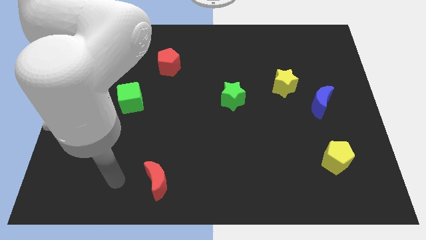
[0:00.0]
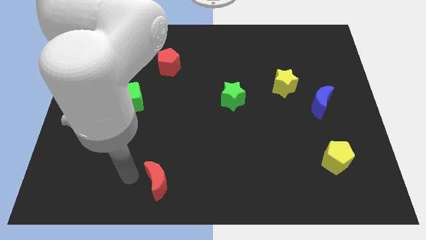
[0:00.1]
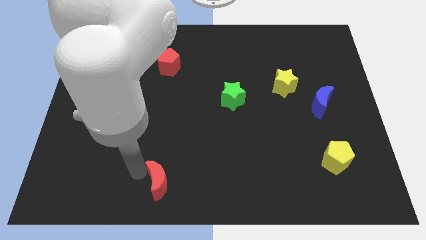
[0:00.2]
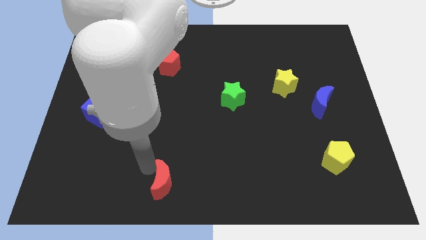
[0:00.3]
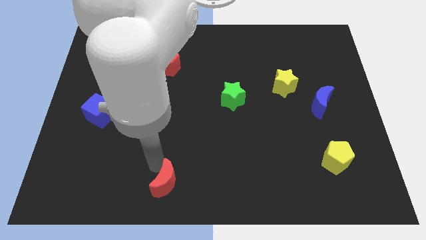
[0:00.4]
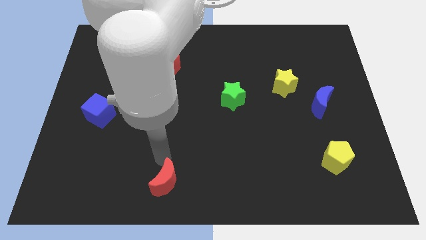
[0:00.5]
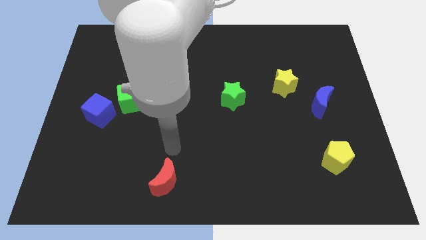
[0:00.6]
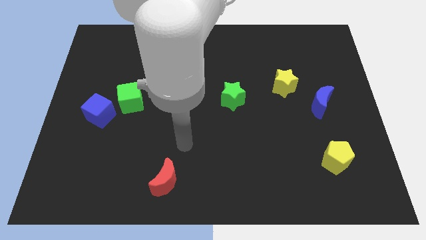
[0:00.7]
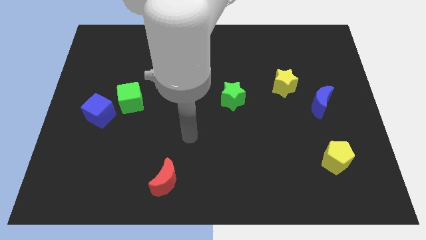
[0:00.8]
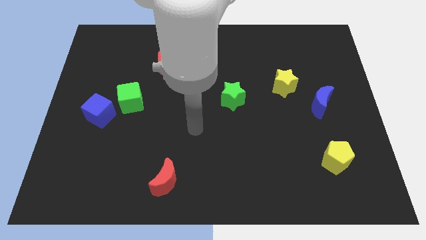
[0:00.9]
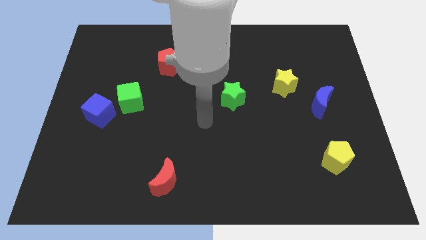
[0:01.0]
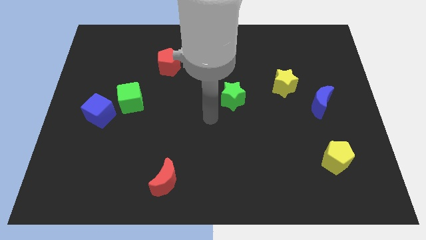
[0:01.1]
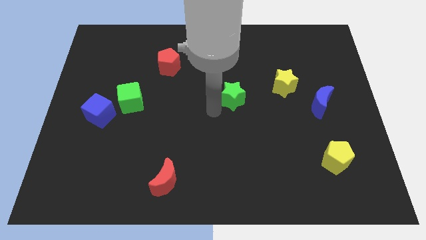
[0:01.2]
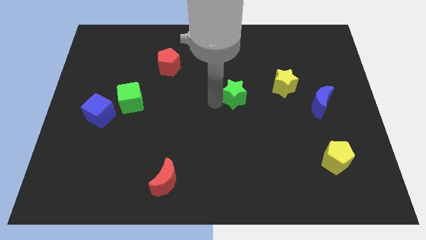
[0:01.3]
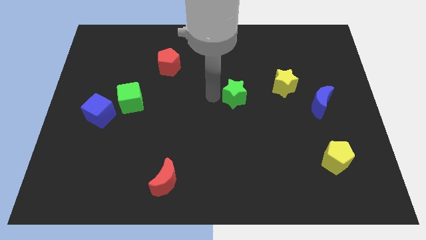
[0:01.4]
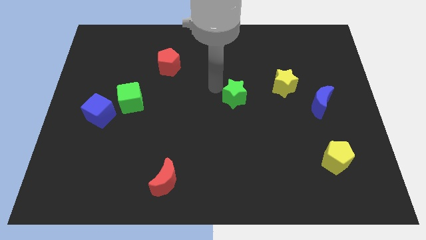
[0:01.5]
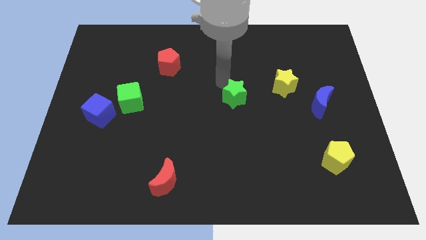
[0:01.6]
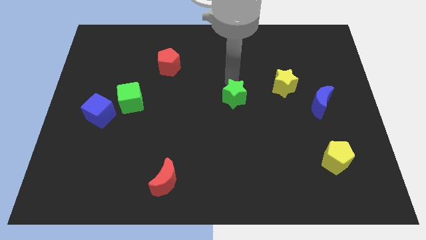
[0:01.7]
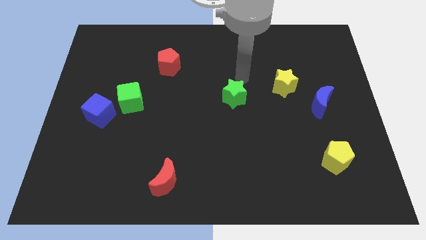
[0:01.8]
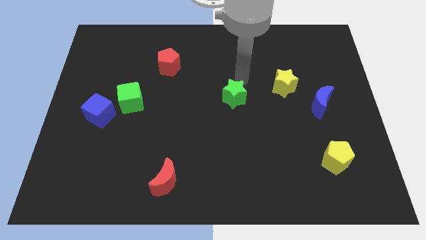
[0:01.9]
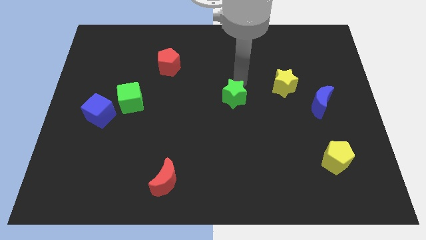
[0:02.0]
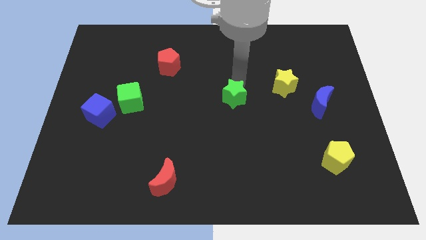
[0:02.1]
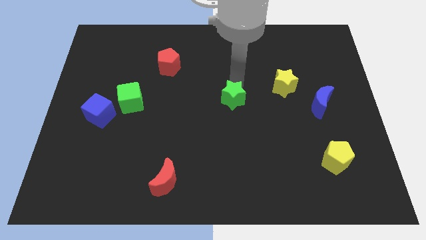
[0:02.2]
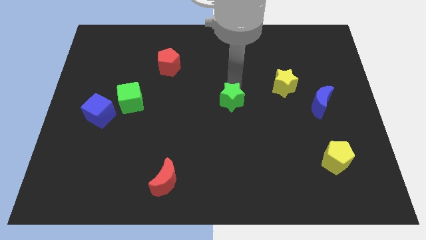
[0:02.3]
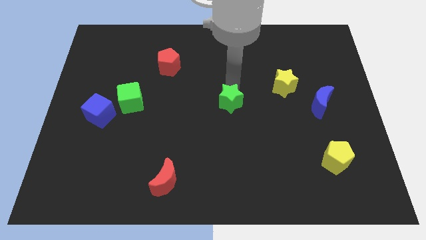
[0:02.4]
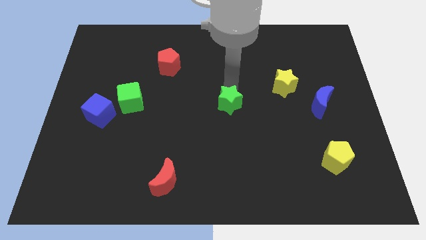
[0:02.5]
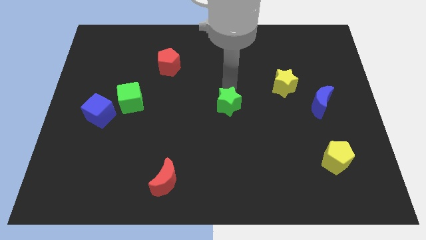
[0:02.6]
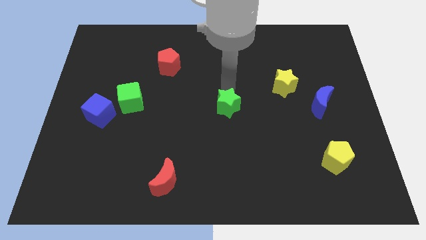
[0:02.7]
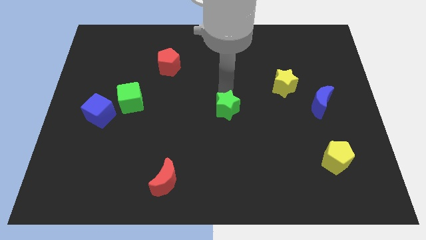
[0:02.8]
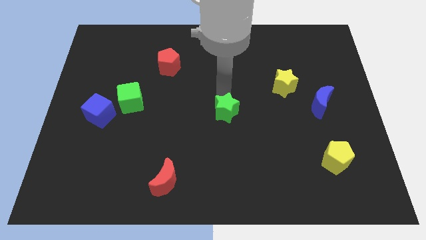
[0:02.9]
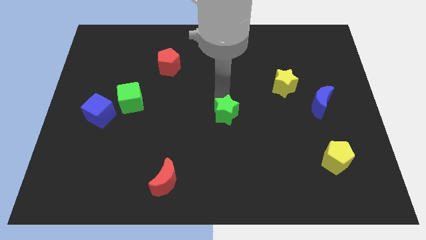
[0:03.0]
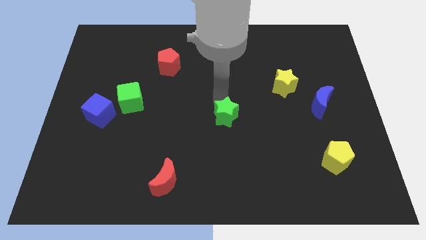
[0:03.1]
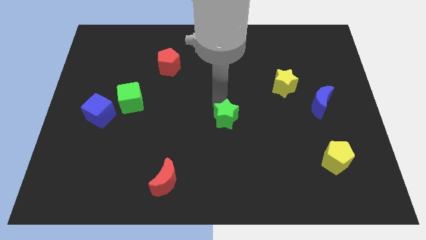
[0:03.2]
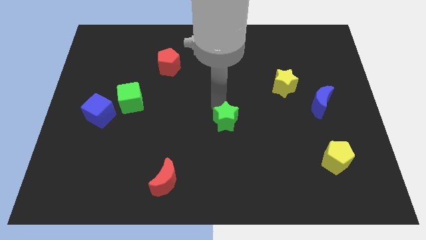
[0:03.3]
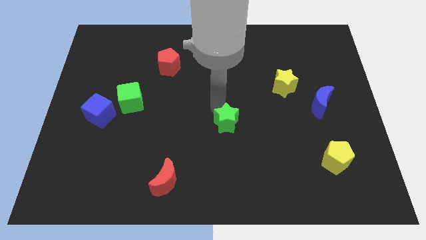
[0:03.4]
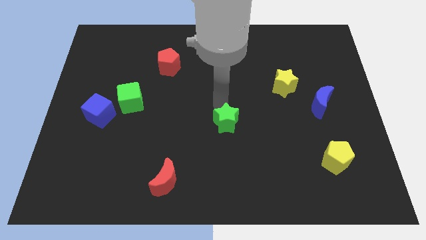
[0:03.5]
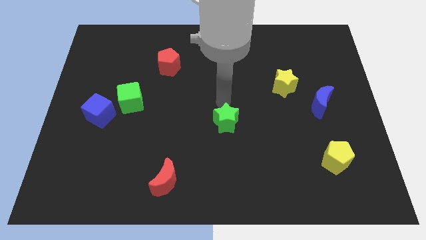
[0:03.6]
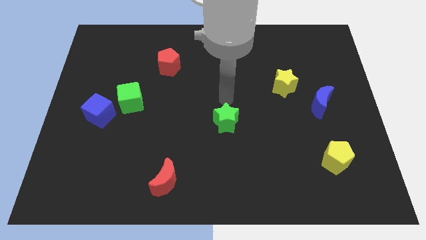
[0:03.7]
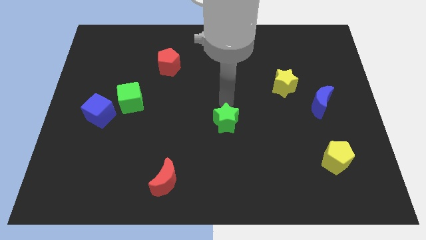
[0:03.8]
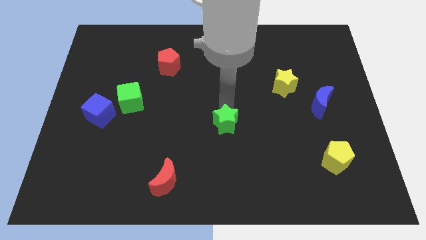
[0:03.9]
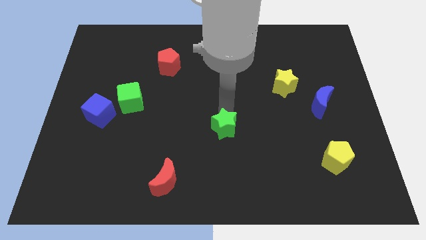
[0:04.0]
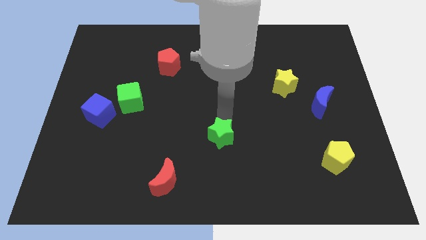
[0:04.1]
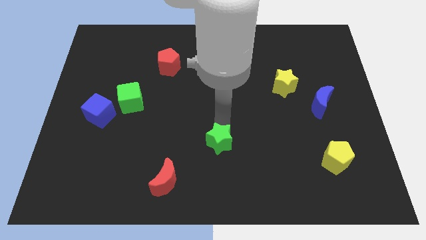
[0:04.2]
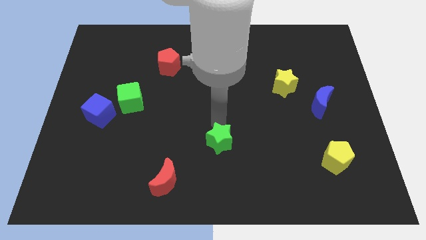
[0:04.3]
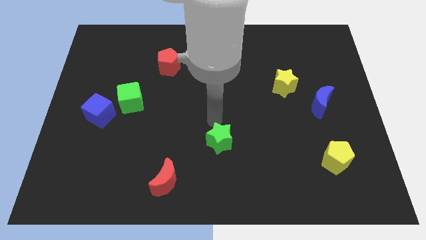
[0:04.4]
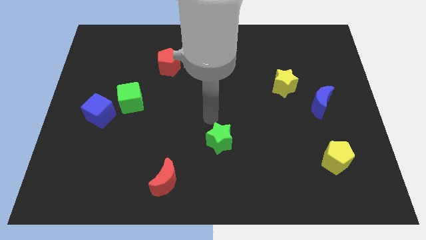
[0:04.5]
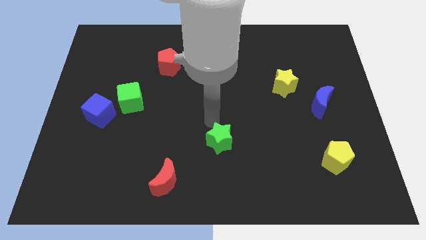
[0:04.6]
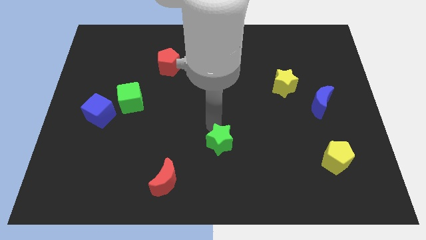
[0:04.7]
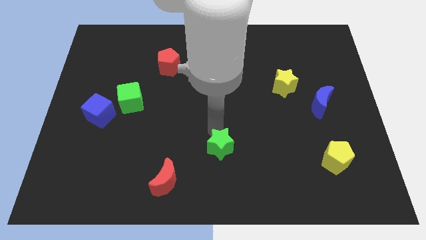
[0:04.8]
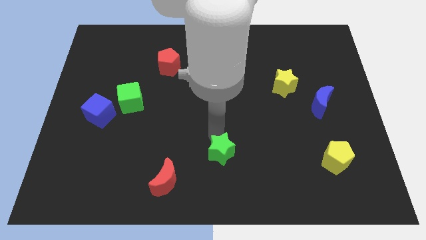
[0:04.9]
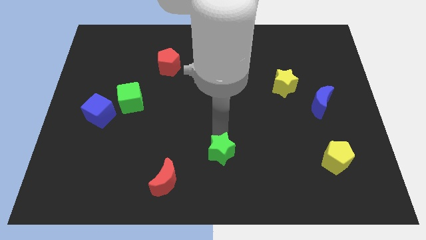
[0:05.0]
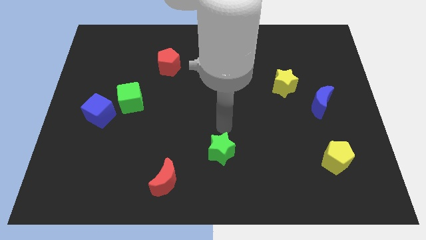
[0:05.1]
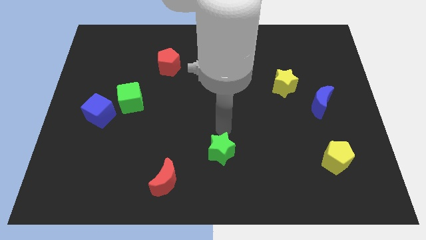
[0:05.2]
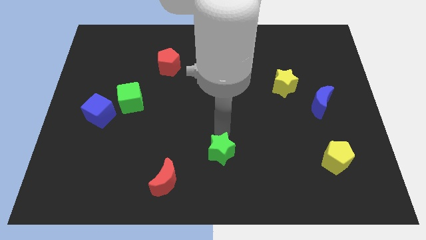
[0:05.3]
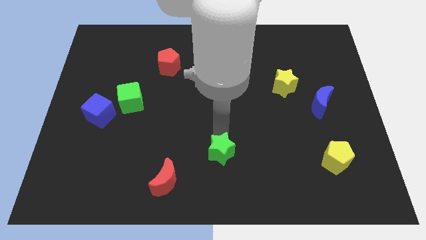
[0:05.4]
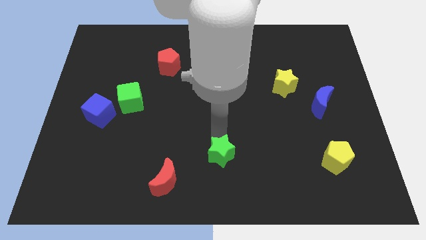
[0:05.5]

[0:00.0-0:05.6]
slide the green star to the bottom side

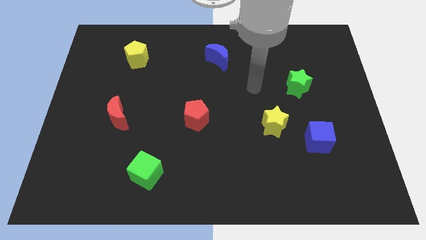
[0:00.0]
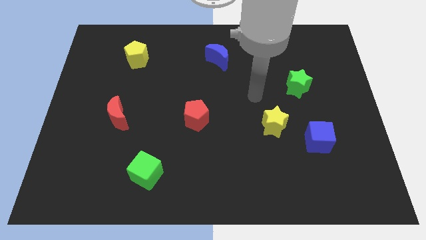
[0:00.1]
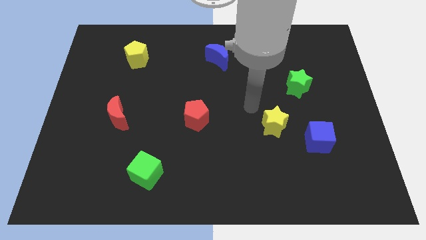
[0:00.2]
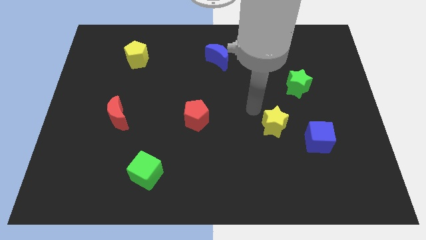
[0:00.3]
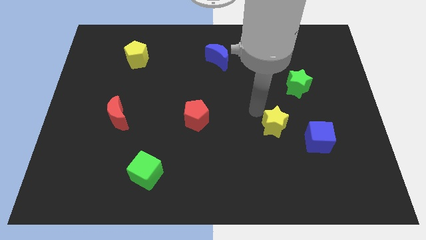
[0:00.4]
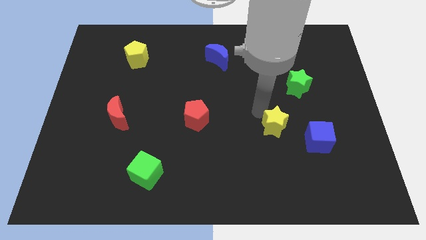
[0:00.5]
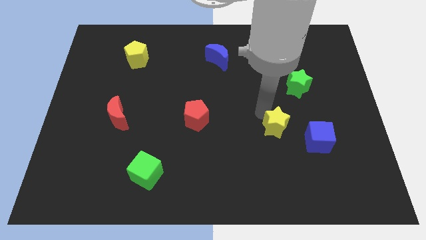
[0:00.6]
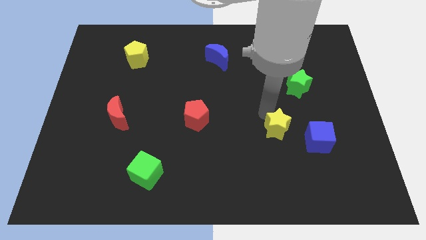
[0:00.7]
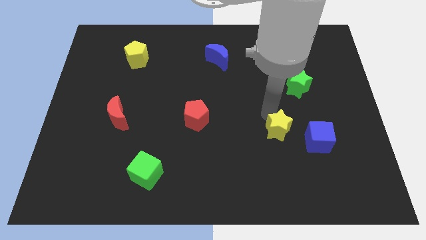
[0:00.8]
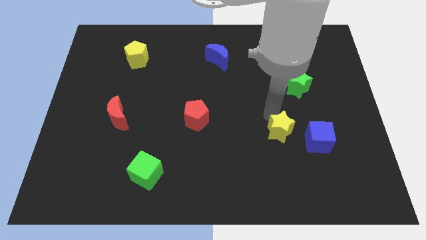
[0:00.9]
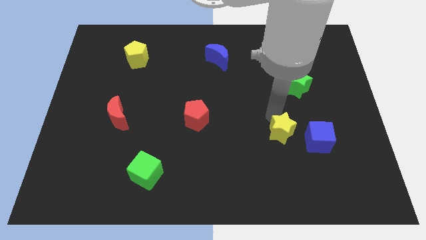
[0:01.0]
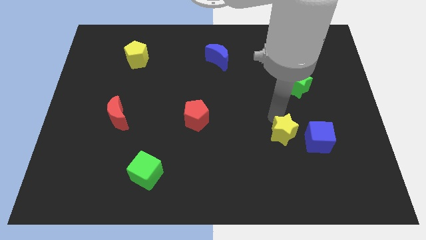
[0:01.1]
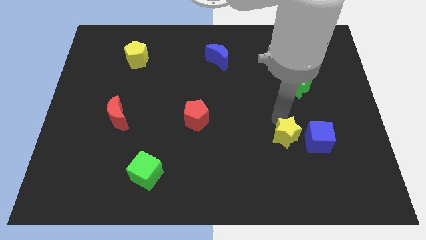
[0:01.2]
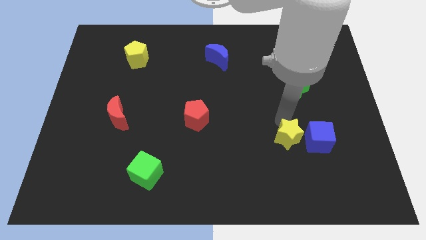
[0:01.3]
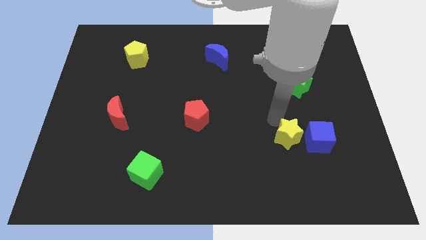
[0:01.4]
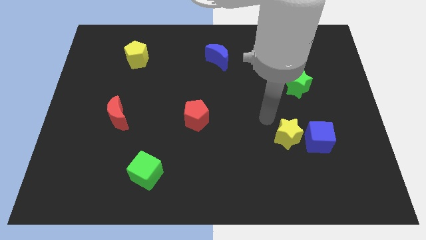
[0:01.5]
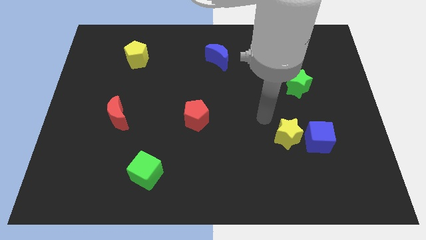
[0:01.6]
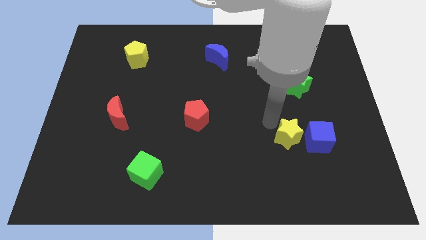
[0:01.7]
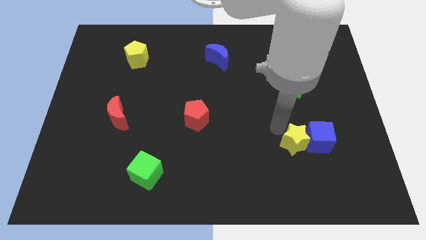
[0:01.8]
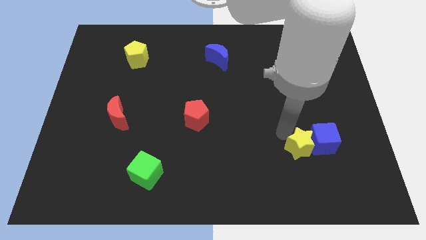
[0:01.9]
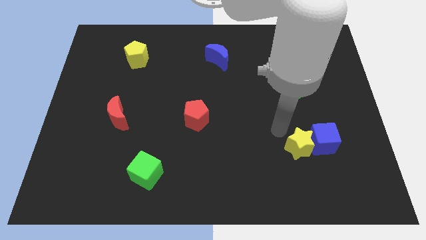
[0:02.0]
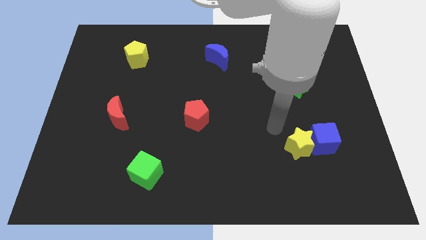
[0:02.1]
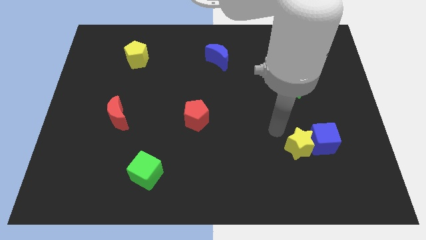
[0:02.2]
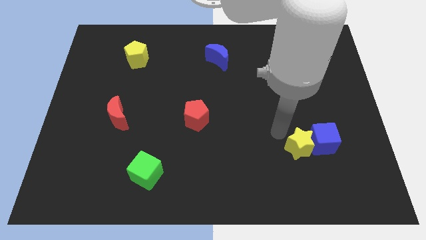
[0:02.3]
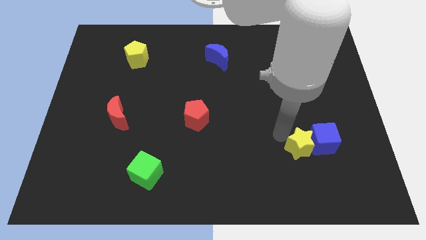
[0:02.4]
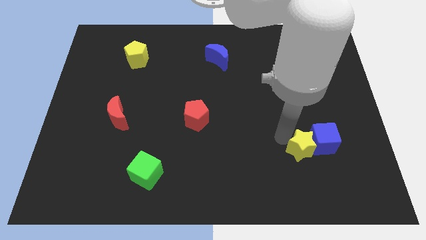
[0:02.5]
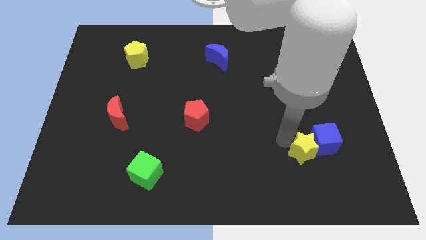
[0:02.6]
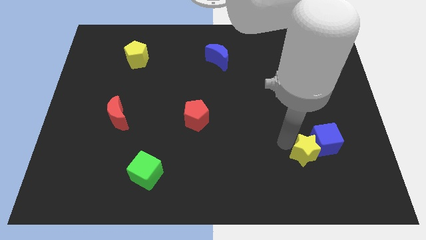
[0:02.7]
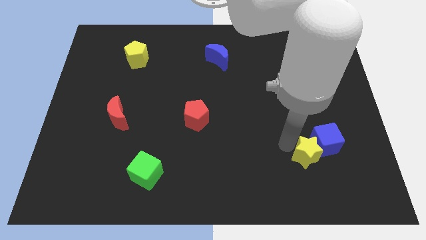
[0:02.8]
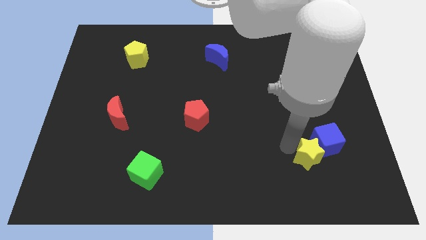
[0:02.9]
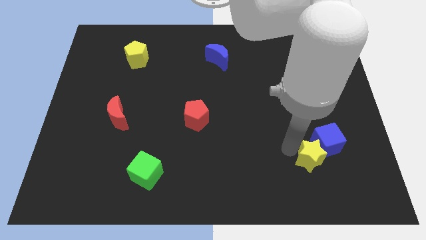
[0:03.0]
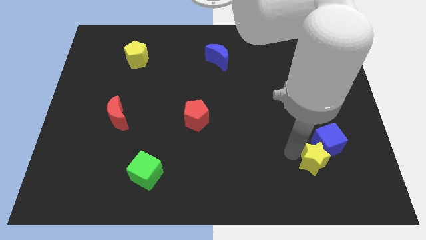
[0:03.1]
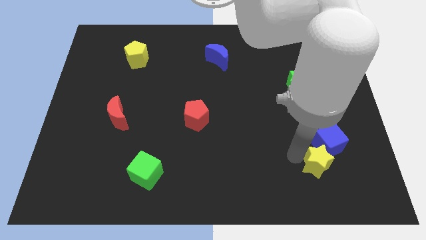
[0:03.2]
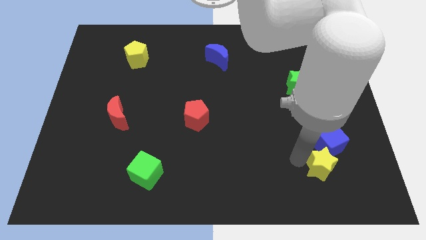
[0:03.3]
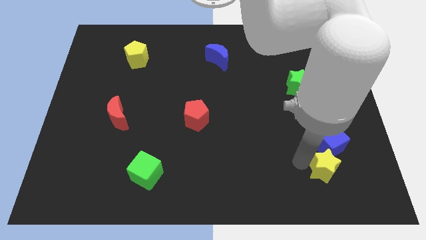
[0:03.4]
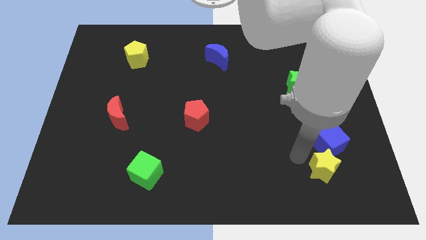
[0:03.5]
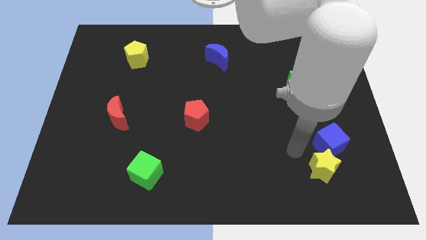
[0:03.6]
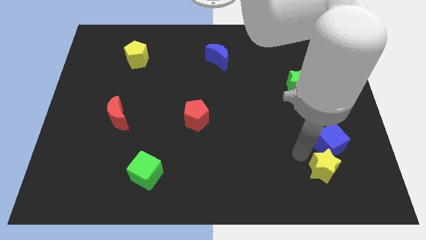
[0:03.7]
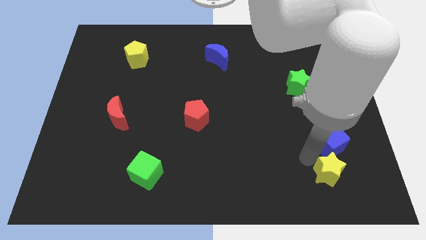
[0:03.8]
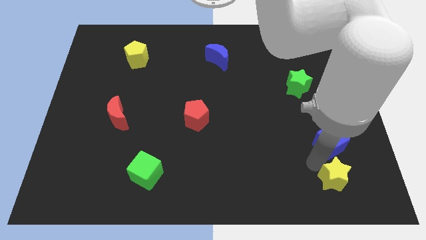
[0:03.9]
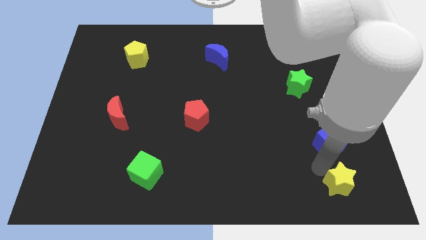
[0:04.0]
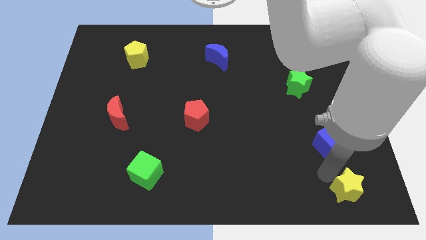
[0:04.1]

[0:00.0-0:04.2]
move the yellow star to the bottom right corner
